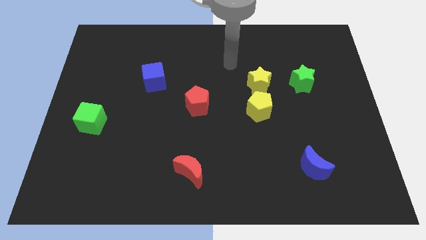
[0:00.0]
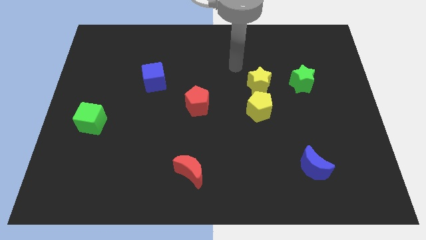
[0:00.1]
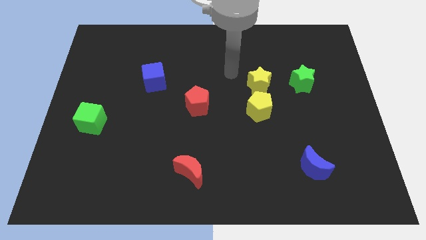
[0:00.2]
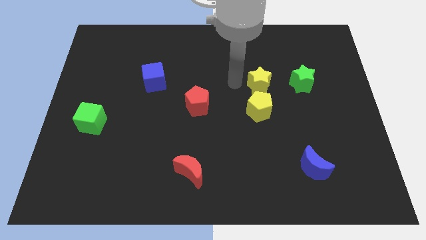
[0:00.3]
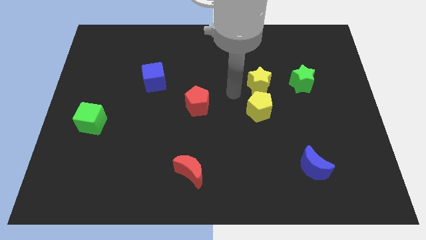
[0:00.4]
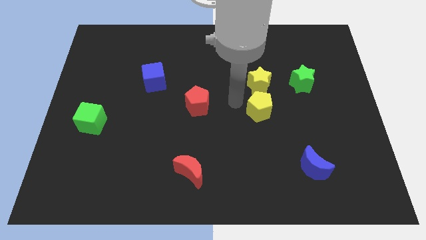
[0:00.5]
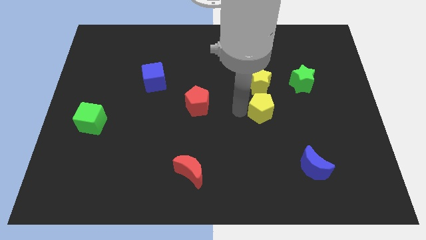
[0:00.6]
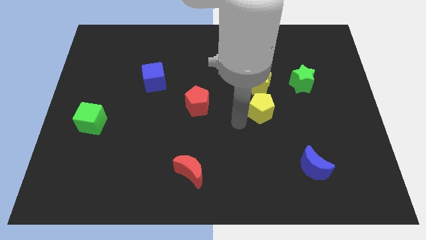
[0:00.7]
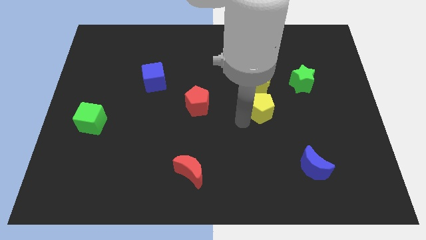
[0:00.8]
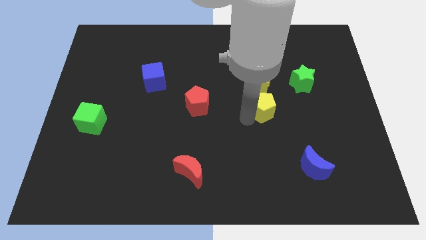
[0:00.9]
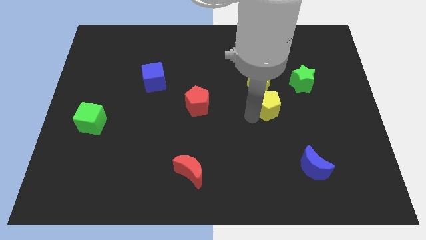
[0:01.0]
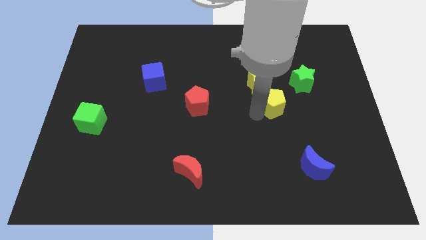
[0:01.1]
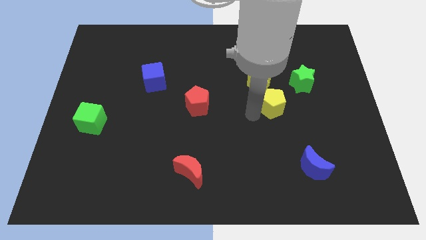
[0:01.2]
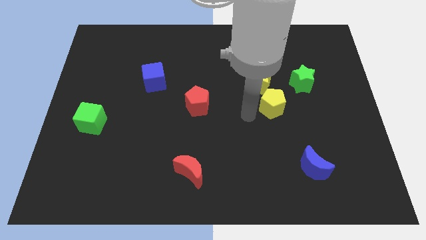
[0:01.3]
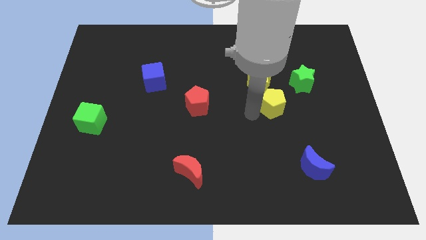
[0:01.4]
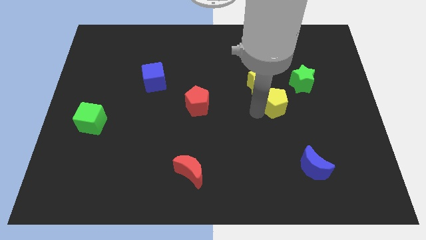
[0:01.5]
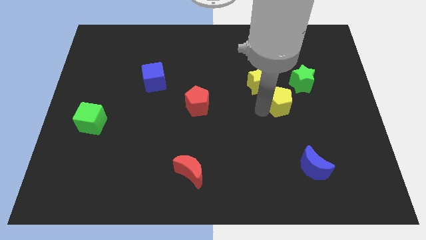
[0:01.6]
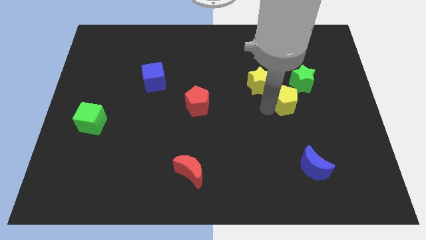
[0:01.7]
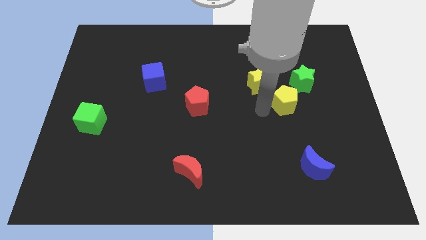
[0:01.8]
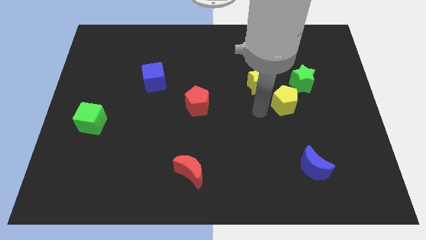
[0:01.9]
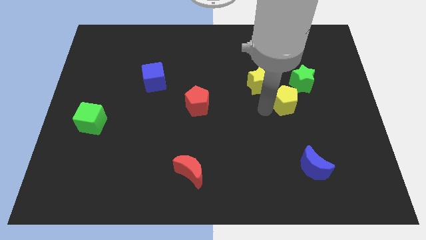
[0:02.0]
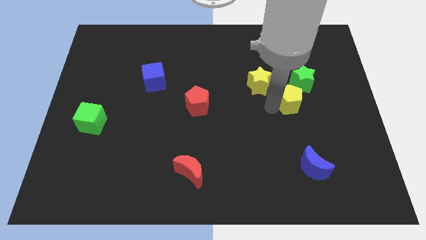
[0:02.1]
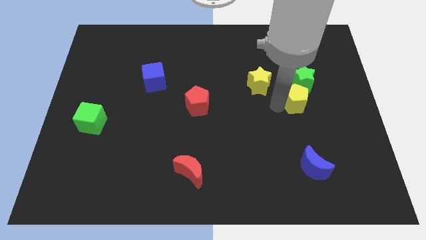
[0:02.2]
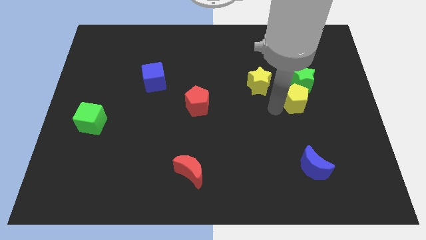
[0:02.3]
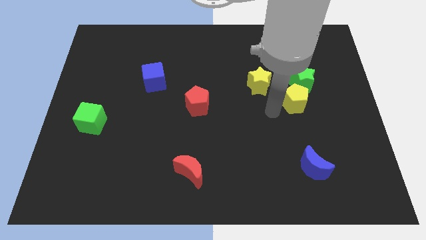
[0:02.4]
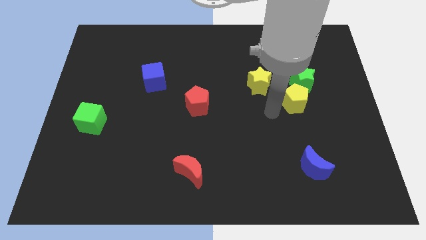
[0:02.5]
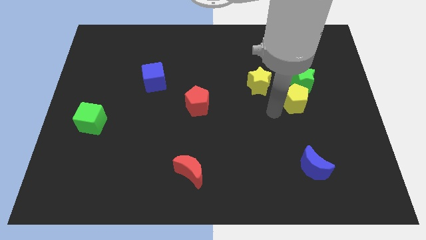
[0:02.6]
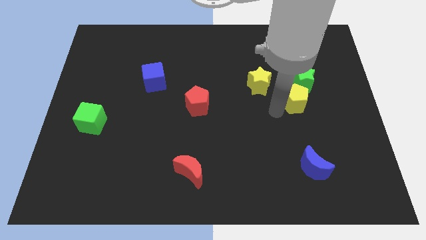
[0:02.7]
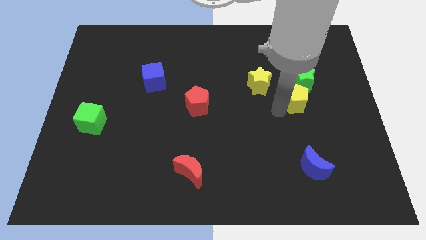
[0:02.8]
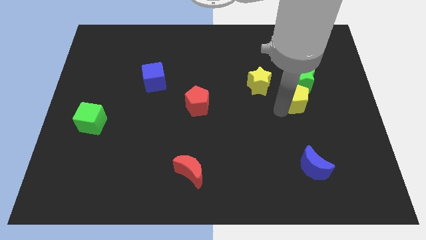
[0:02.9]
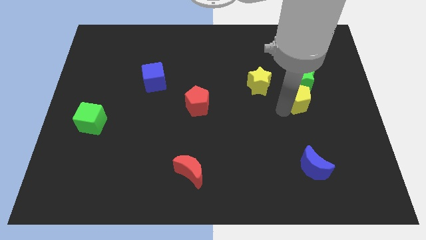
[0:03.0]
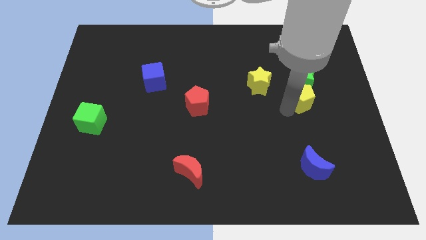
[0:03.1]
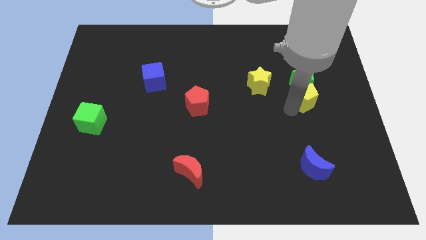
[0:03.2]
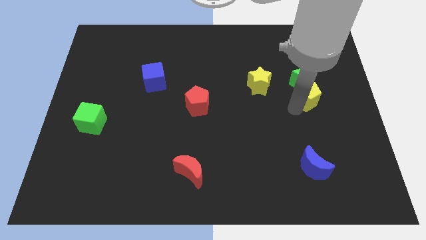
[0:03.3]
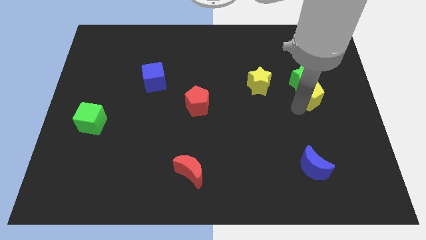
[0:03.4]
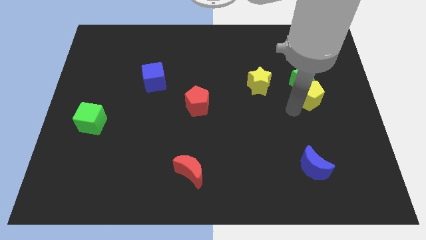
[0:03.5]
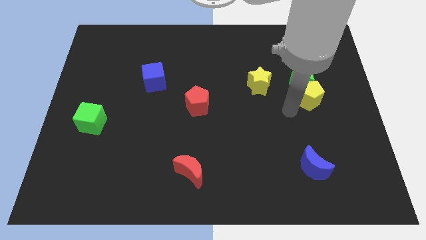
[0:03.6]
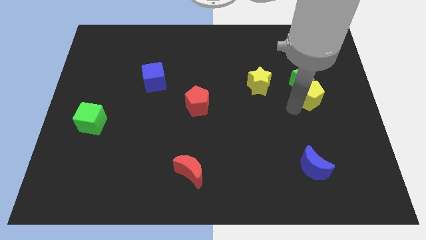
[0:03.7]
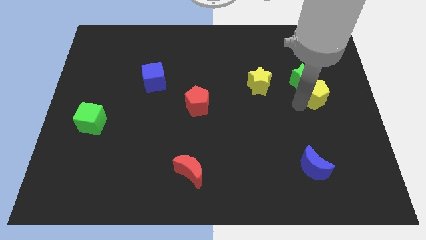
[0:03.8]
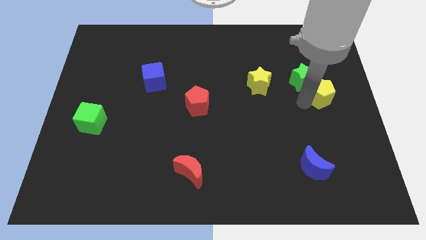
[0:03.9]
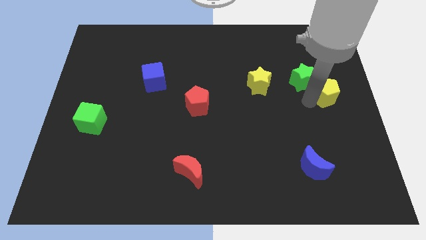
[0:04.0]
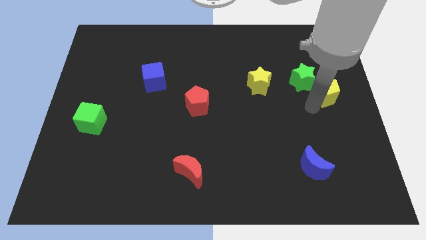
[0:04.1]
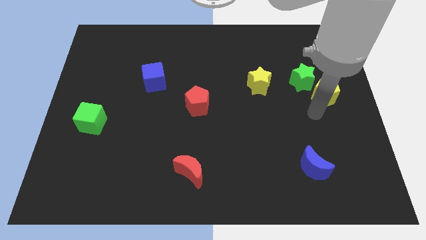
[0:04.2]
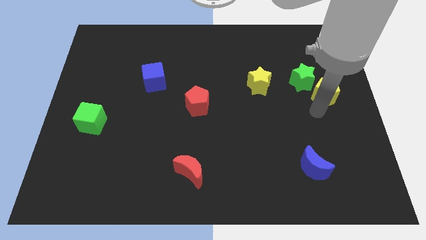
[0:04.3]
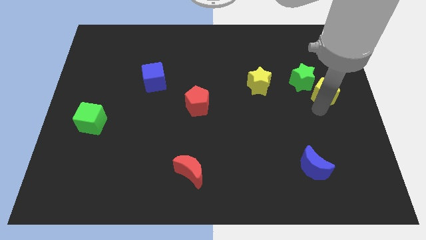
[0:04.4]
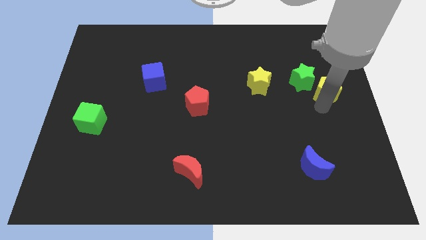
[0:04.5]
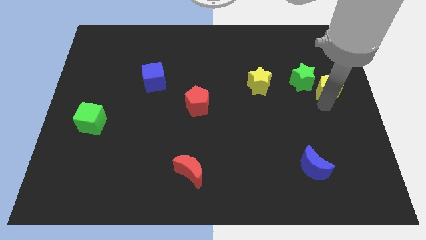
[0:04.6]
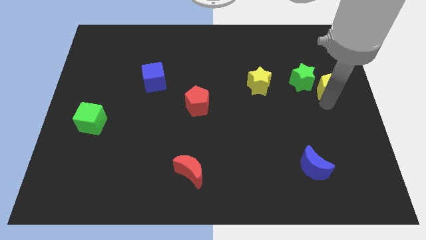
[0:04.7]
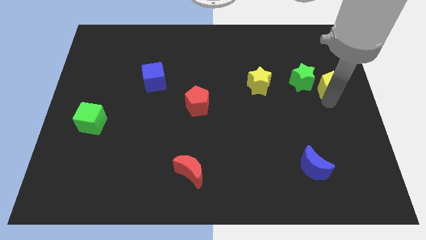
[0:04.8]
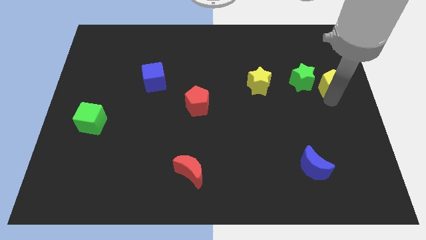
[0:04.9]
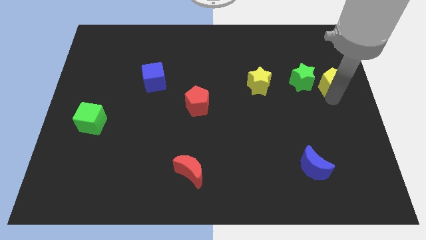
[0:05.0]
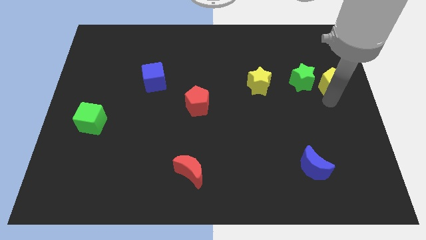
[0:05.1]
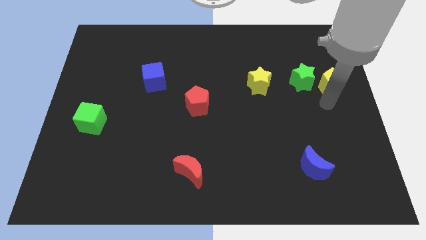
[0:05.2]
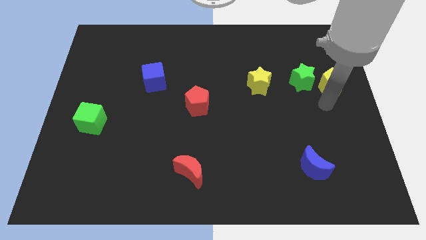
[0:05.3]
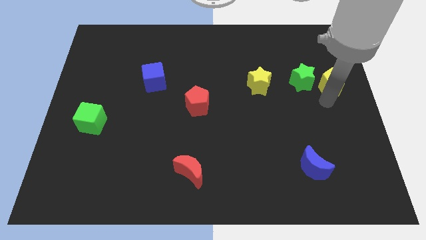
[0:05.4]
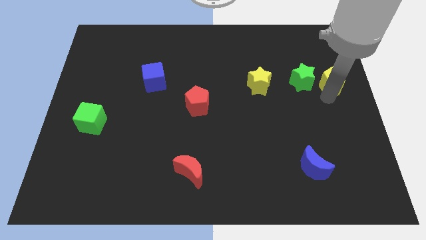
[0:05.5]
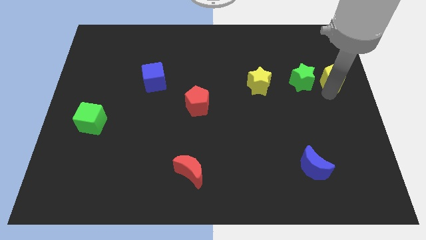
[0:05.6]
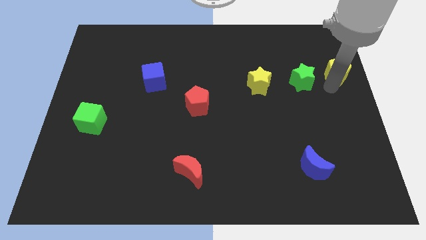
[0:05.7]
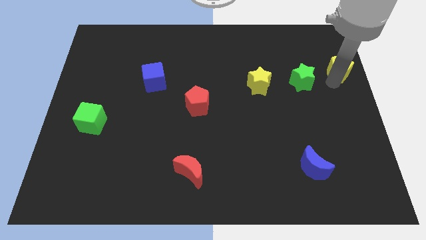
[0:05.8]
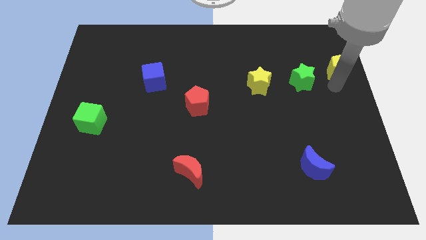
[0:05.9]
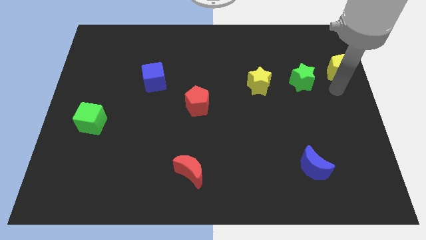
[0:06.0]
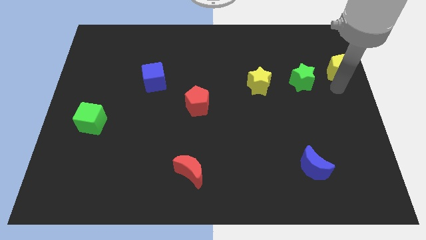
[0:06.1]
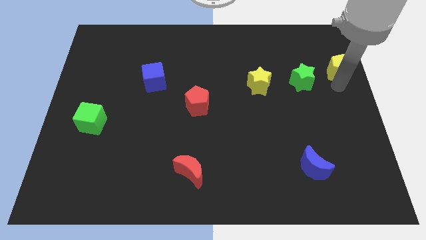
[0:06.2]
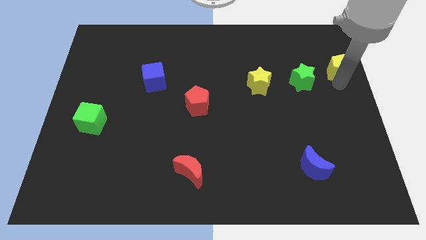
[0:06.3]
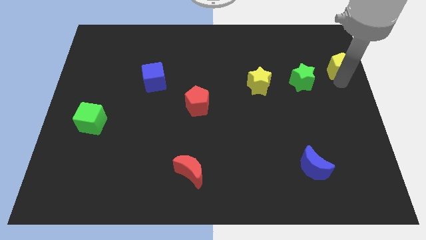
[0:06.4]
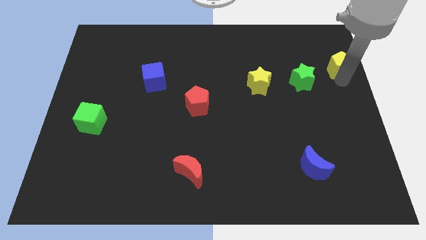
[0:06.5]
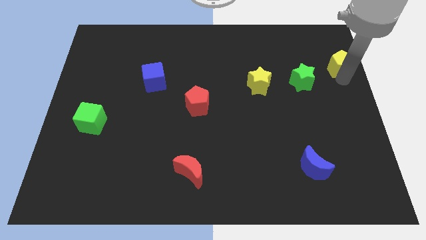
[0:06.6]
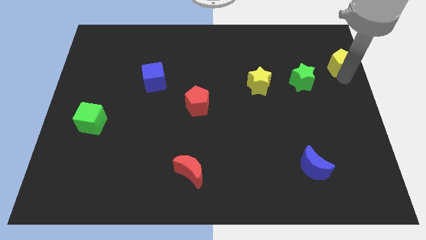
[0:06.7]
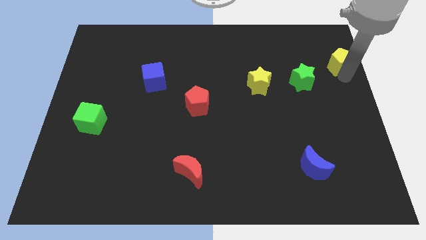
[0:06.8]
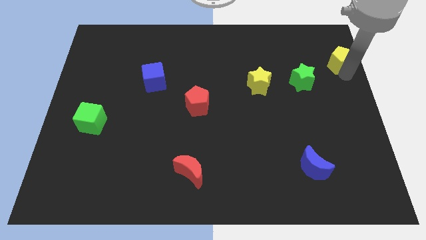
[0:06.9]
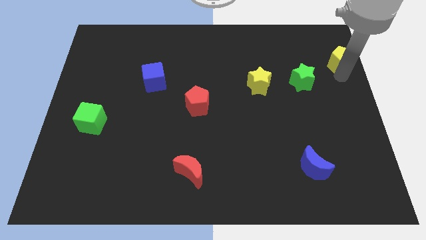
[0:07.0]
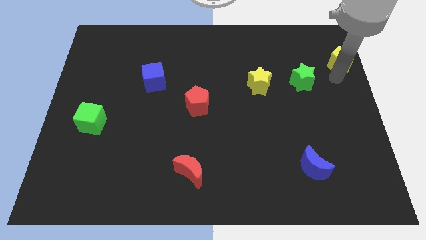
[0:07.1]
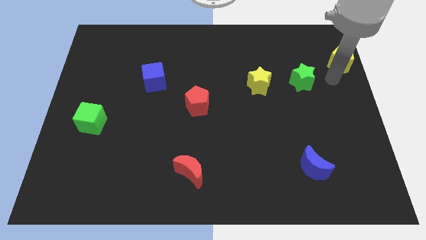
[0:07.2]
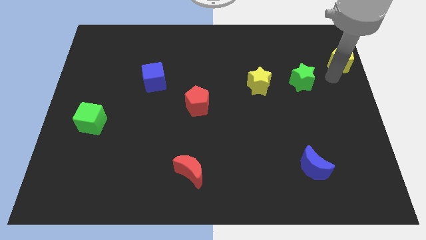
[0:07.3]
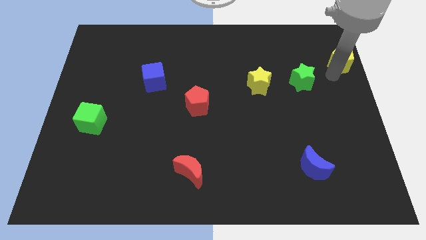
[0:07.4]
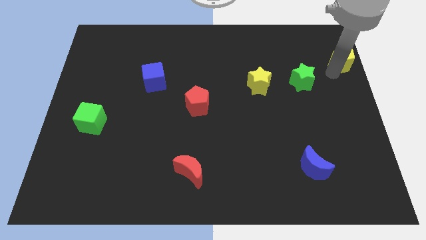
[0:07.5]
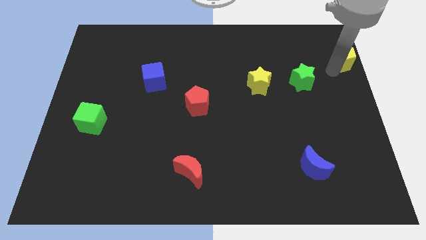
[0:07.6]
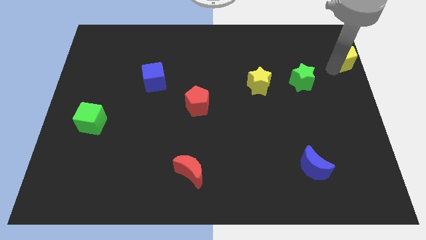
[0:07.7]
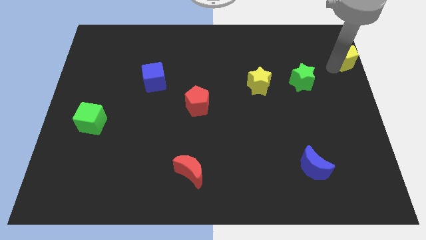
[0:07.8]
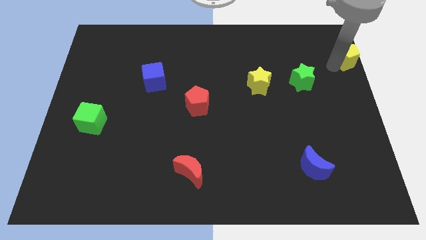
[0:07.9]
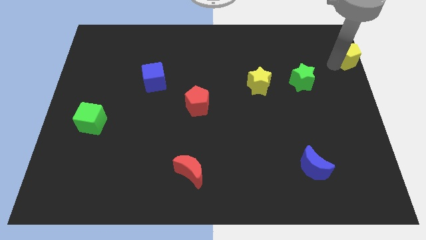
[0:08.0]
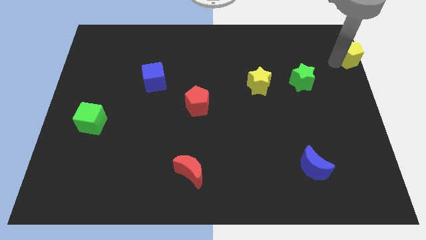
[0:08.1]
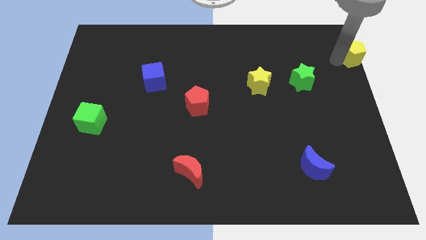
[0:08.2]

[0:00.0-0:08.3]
push the yellow pentagon to the top right
